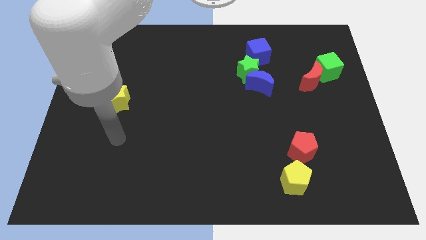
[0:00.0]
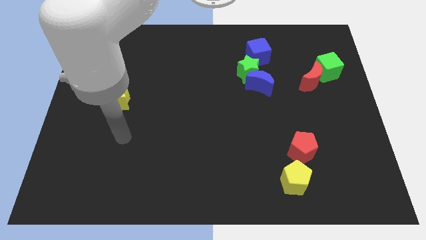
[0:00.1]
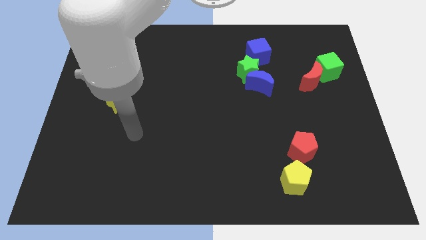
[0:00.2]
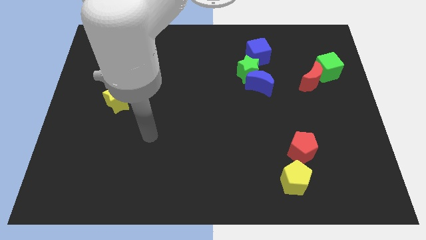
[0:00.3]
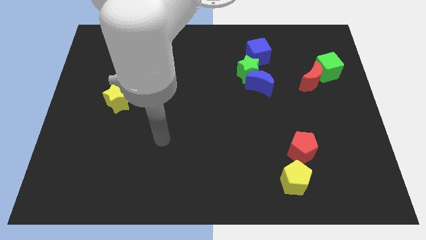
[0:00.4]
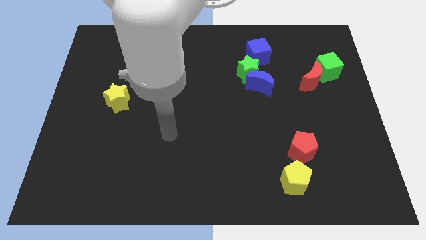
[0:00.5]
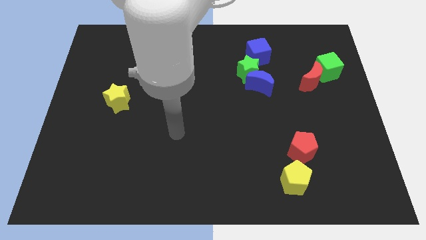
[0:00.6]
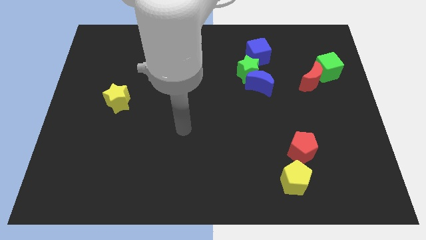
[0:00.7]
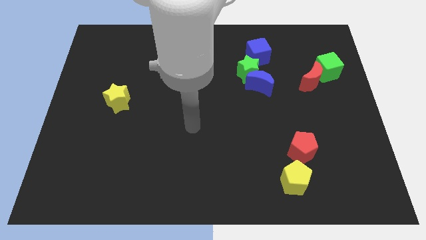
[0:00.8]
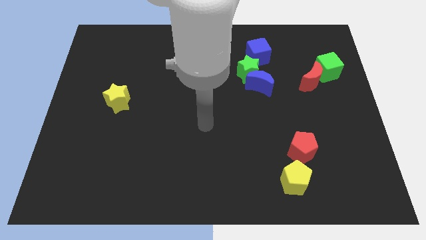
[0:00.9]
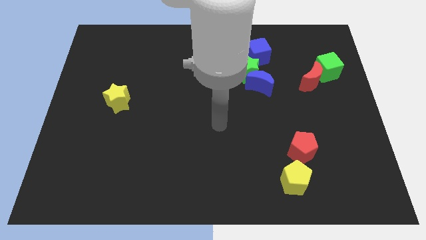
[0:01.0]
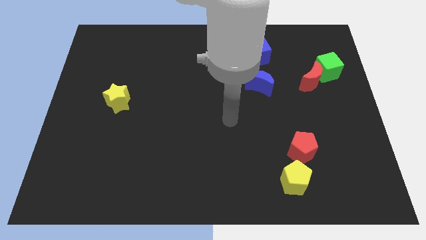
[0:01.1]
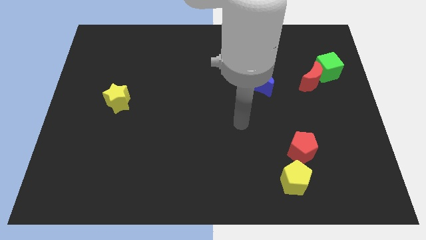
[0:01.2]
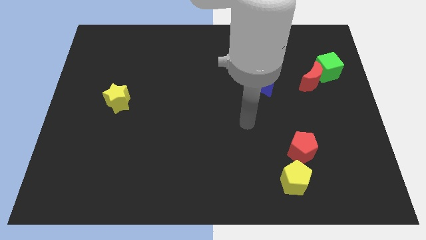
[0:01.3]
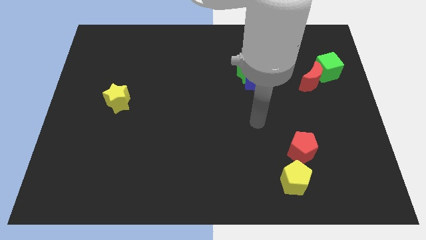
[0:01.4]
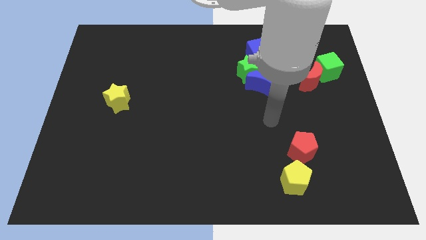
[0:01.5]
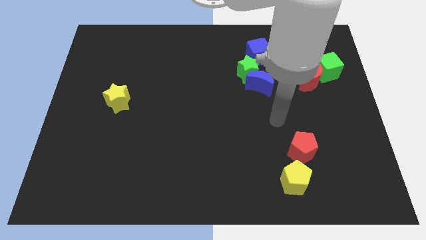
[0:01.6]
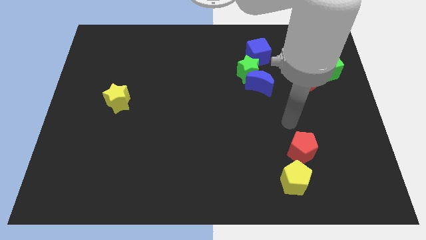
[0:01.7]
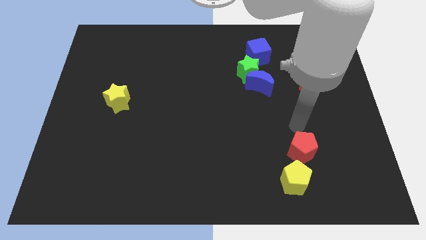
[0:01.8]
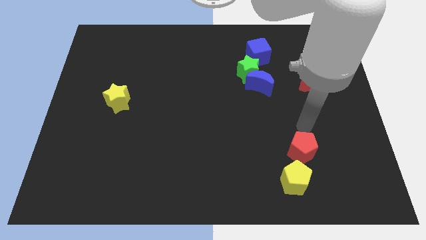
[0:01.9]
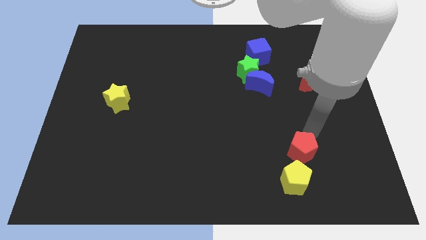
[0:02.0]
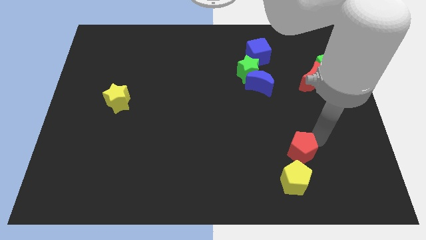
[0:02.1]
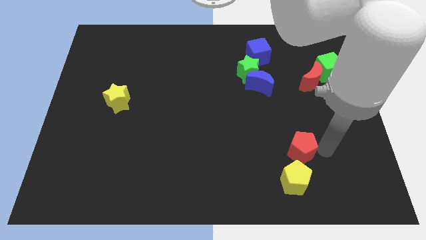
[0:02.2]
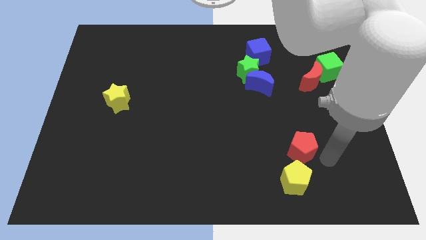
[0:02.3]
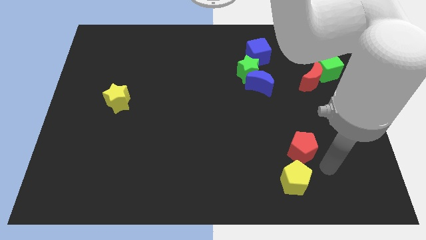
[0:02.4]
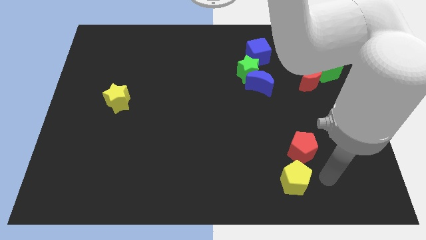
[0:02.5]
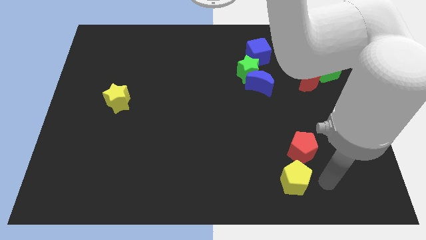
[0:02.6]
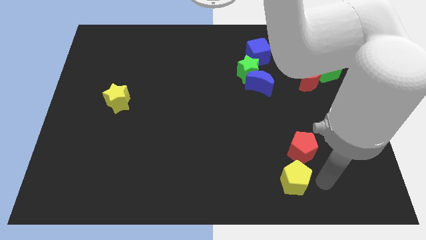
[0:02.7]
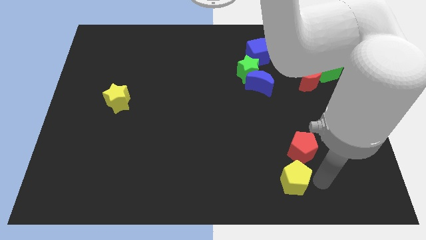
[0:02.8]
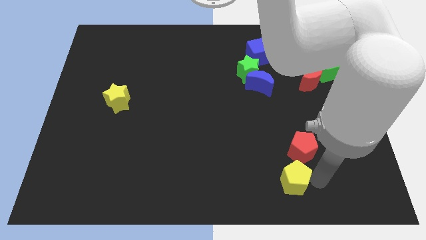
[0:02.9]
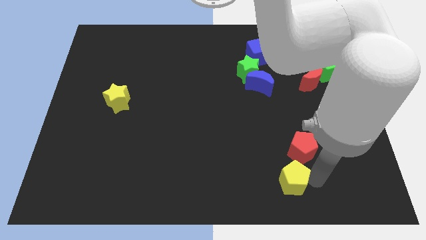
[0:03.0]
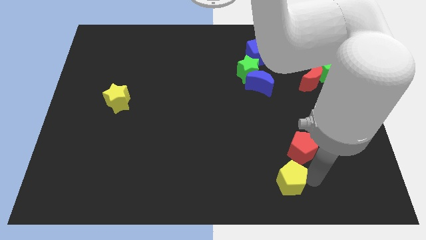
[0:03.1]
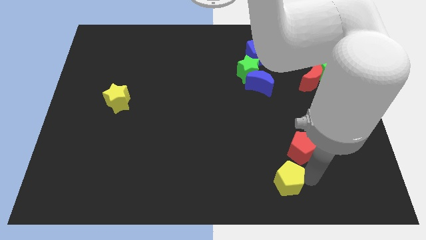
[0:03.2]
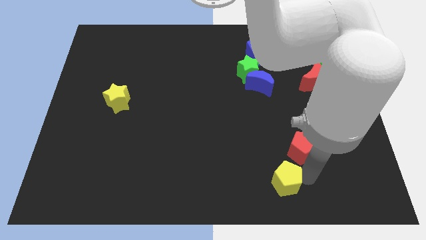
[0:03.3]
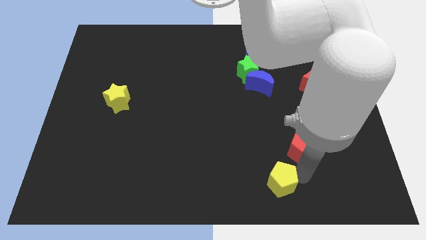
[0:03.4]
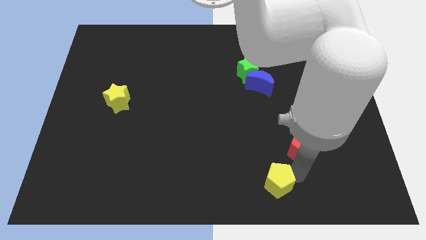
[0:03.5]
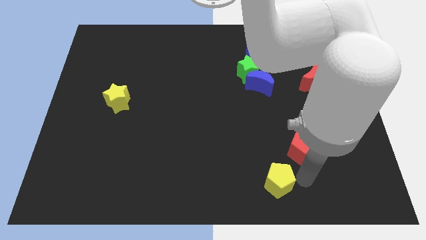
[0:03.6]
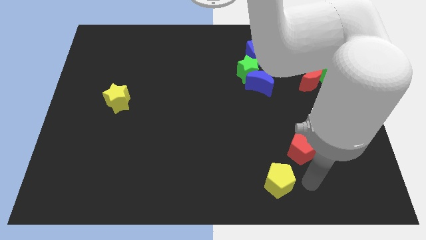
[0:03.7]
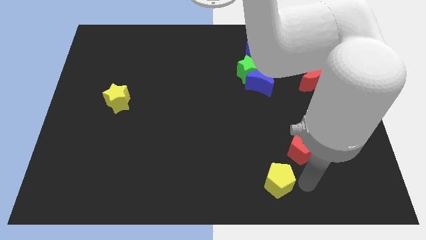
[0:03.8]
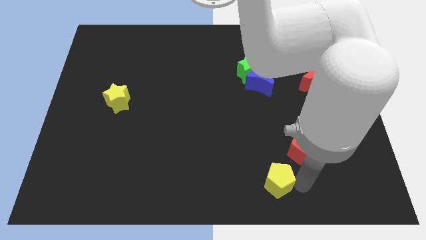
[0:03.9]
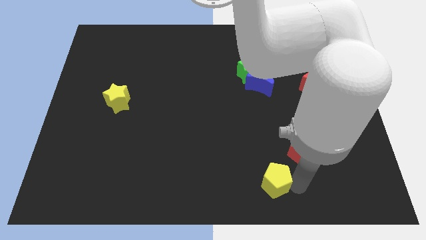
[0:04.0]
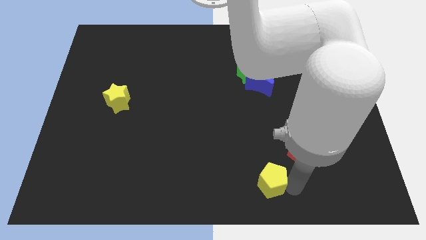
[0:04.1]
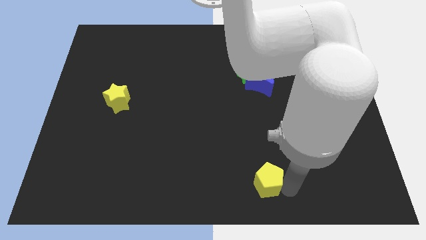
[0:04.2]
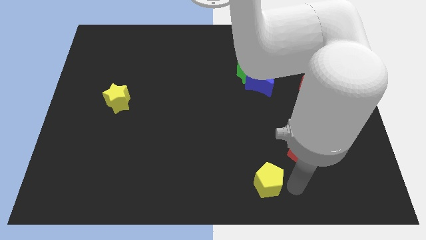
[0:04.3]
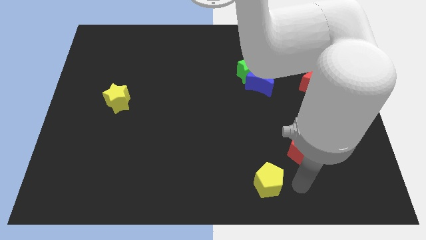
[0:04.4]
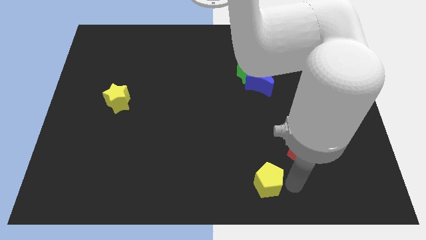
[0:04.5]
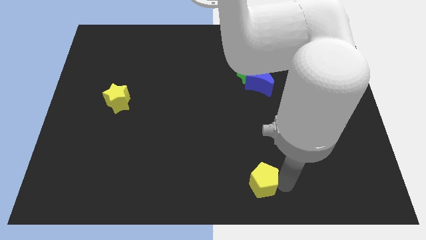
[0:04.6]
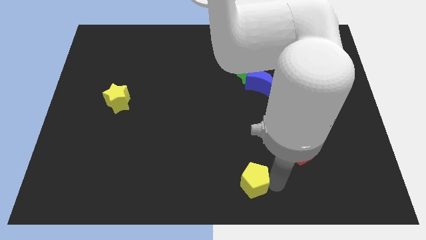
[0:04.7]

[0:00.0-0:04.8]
move the yellow pentagon a little bit to the left

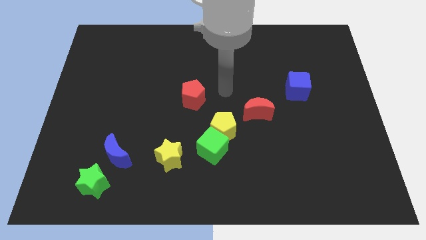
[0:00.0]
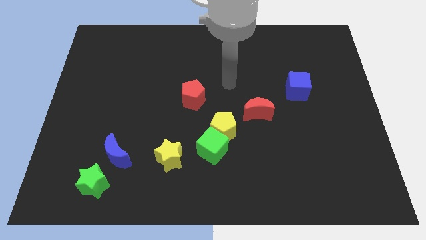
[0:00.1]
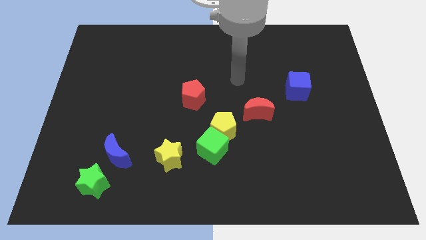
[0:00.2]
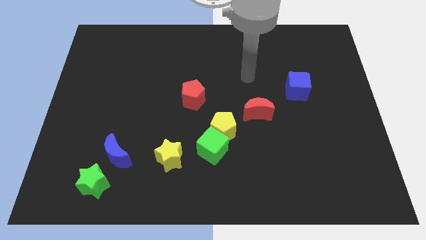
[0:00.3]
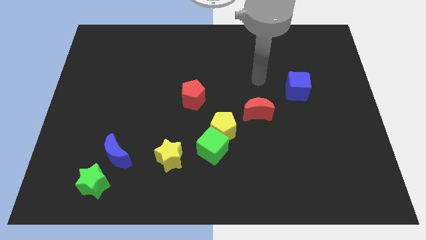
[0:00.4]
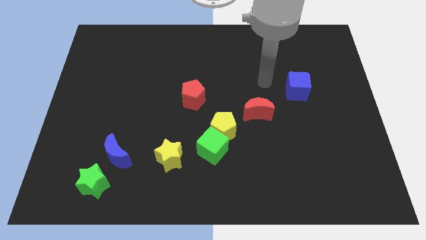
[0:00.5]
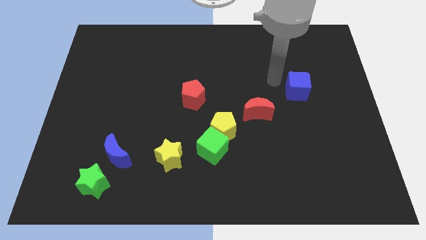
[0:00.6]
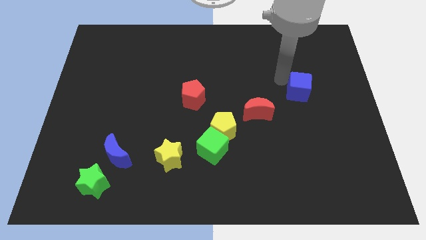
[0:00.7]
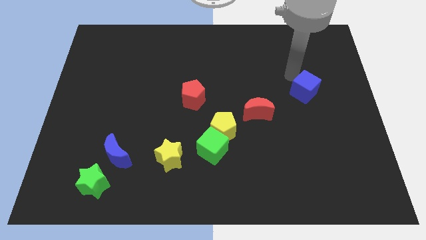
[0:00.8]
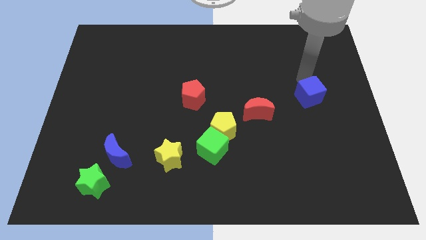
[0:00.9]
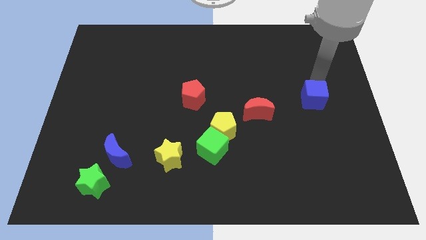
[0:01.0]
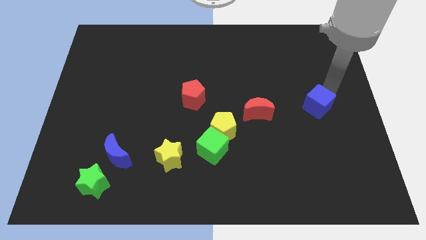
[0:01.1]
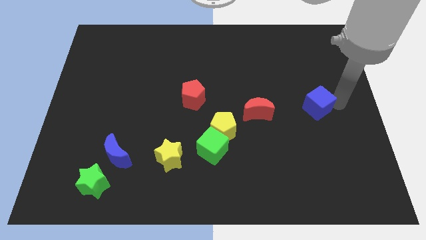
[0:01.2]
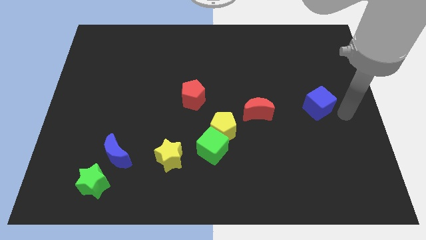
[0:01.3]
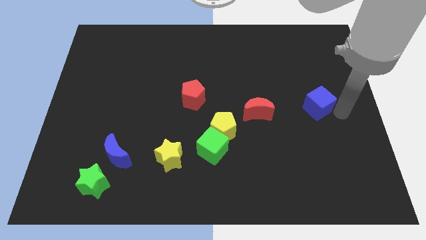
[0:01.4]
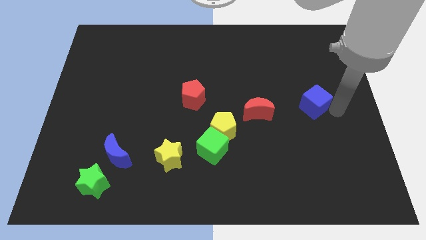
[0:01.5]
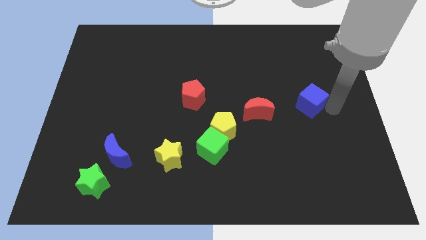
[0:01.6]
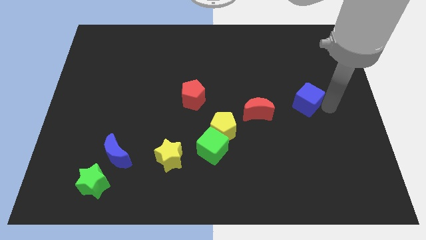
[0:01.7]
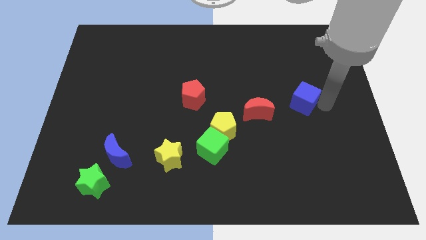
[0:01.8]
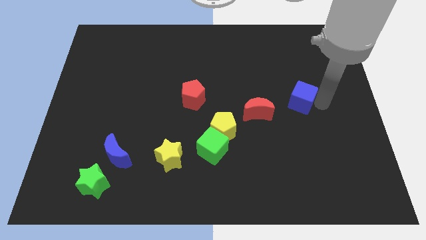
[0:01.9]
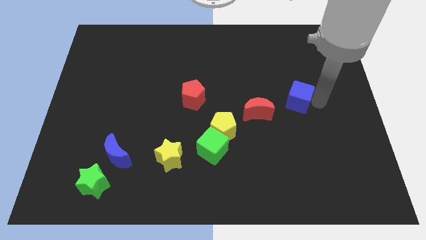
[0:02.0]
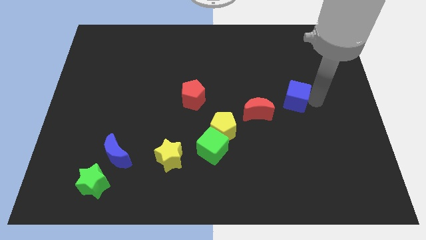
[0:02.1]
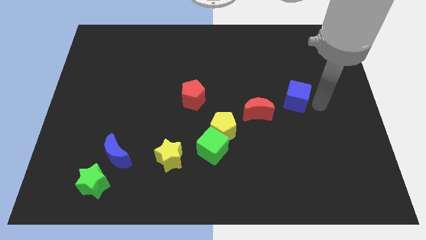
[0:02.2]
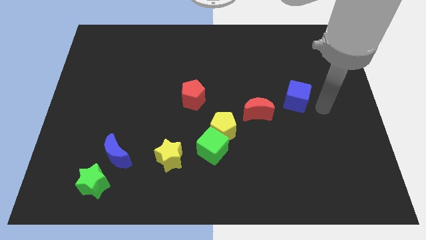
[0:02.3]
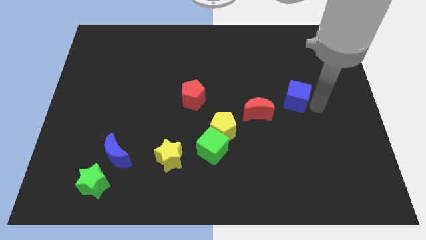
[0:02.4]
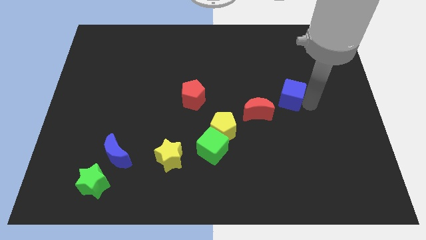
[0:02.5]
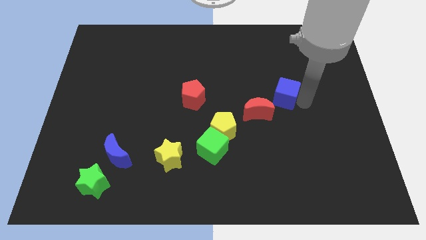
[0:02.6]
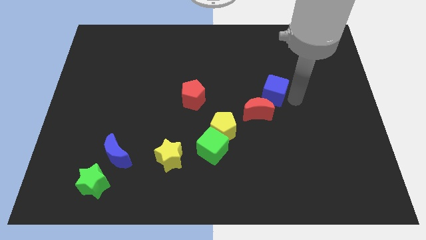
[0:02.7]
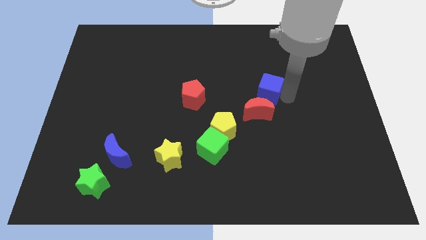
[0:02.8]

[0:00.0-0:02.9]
move the blue cube a little bit to the left

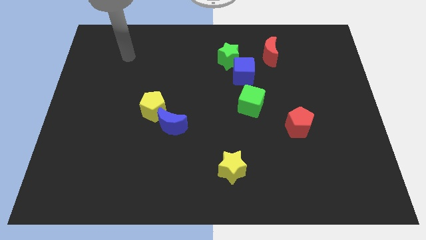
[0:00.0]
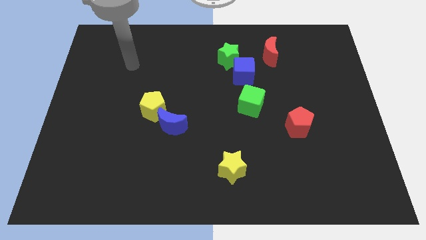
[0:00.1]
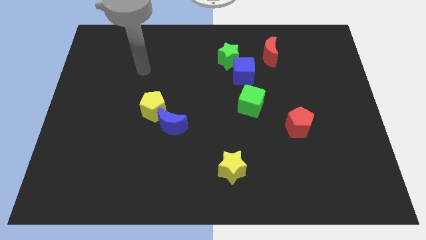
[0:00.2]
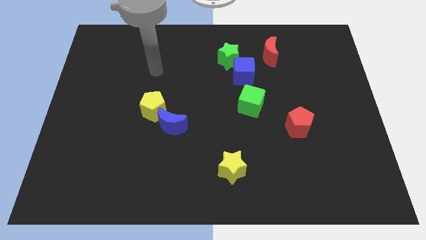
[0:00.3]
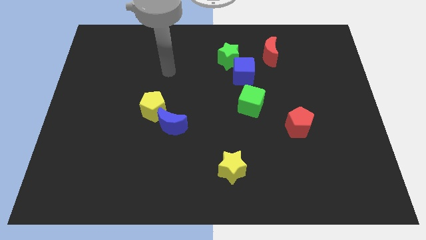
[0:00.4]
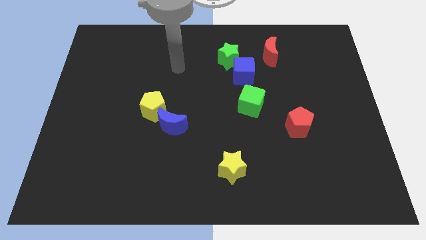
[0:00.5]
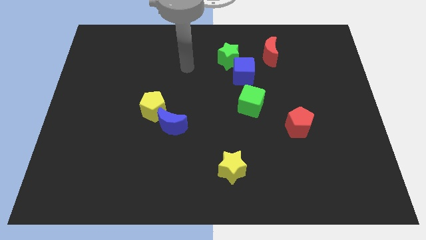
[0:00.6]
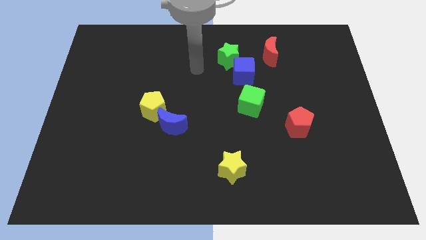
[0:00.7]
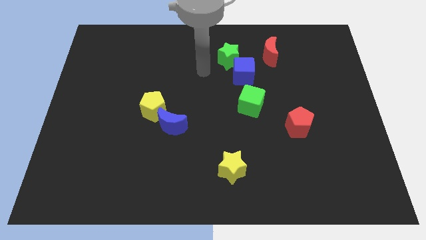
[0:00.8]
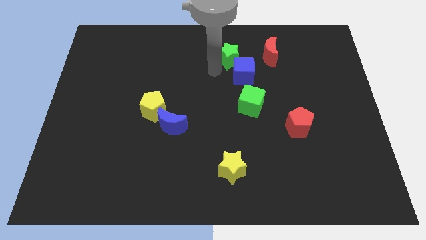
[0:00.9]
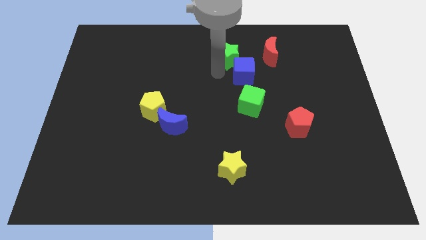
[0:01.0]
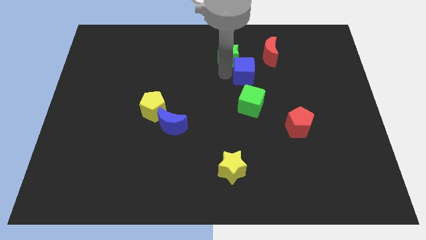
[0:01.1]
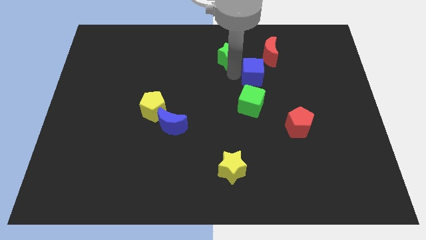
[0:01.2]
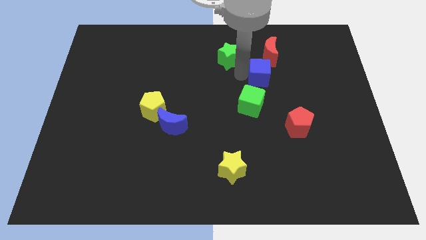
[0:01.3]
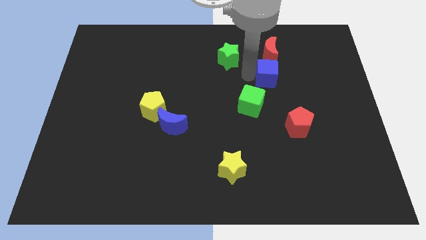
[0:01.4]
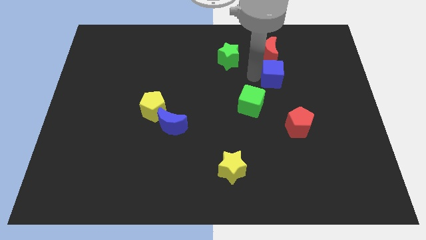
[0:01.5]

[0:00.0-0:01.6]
push the blue cube somewhat right
